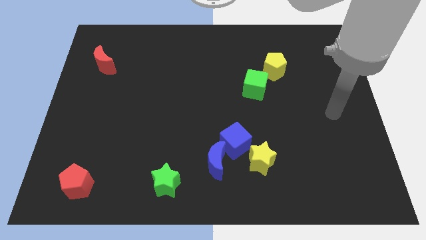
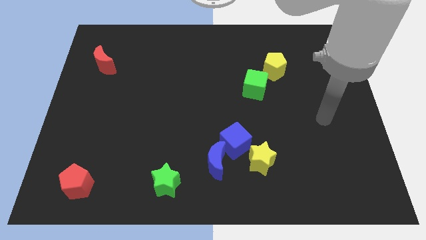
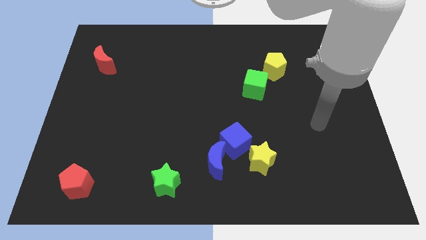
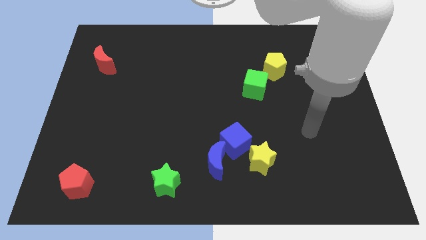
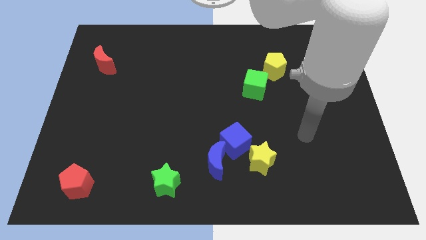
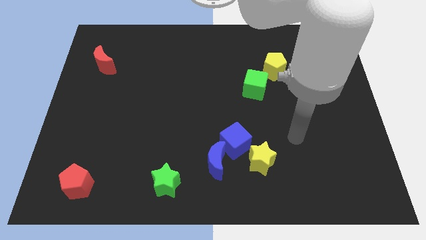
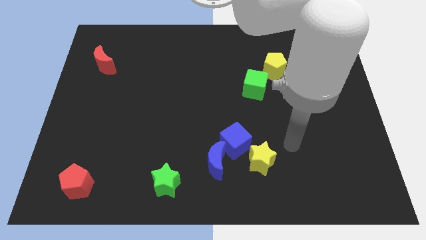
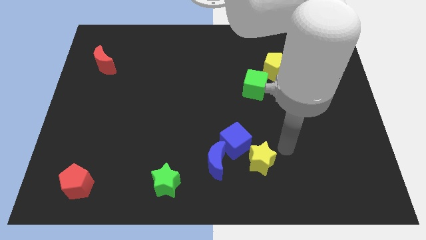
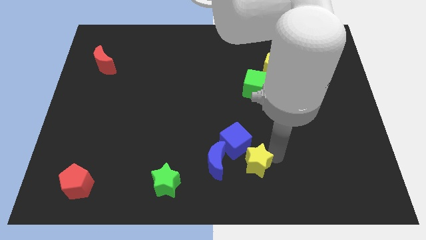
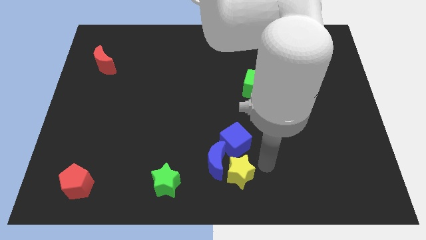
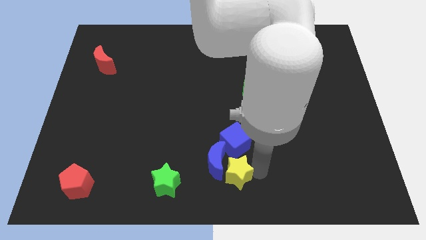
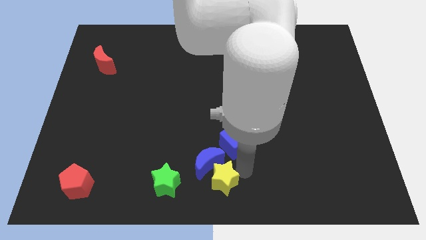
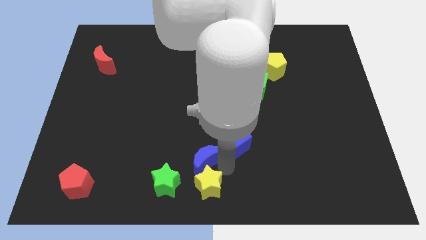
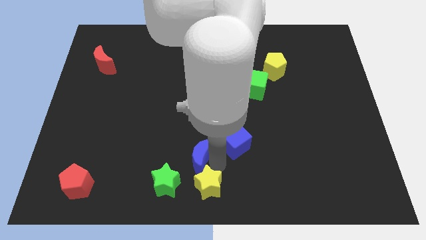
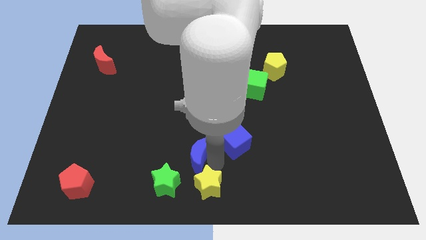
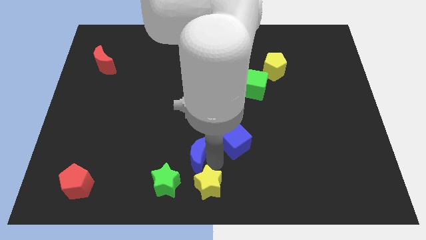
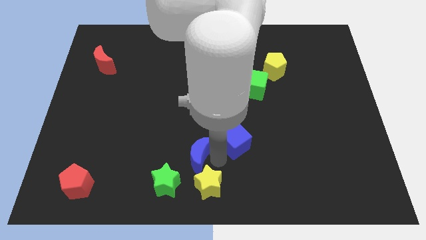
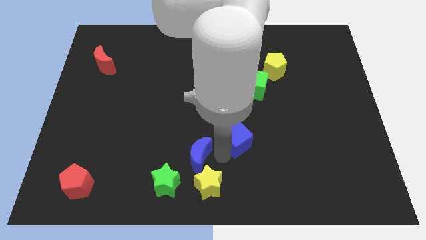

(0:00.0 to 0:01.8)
separate the blue cube from the blue moon and yellow star

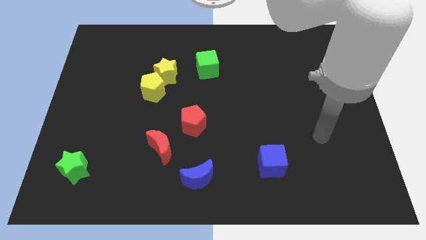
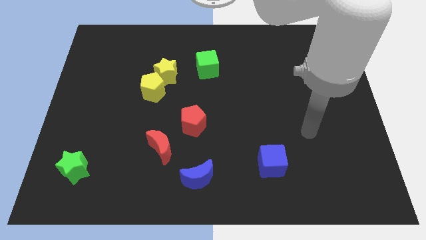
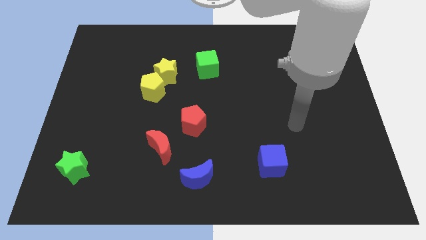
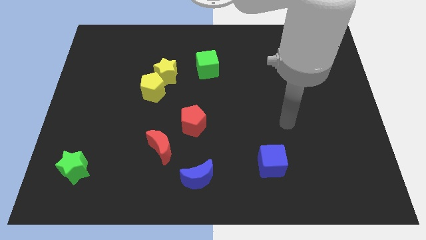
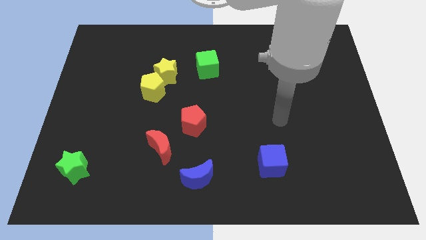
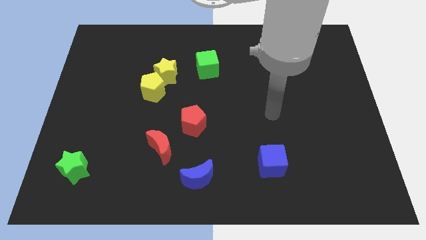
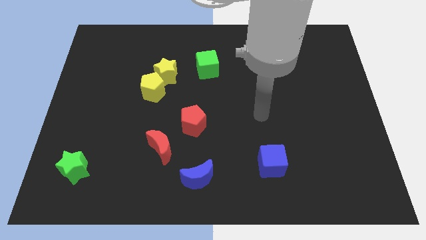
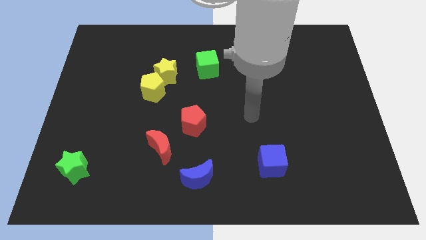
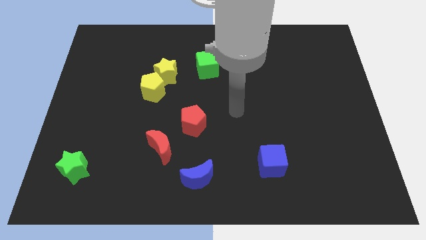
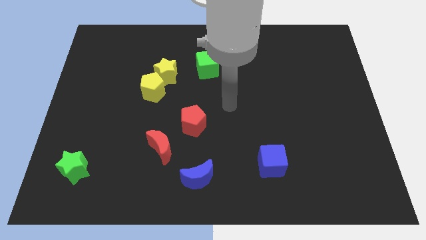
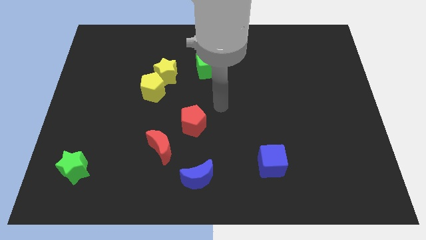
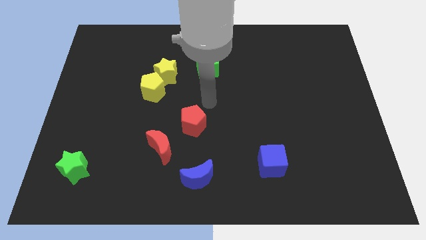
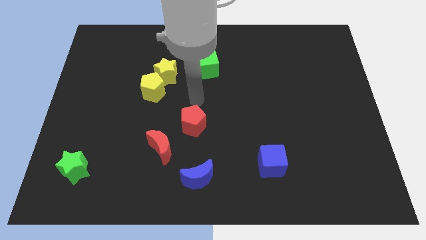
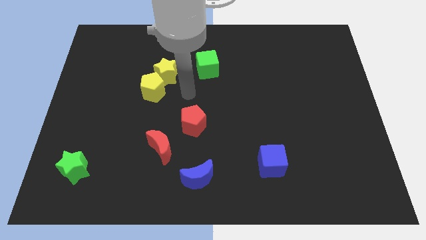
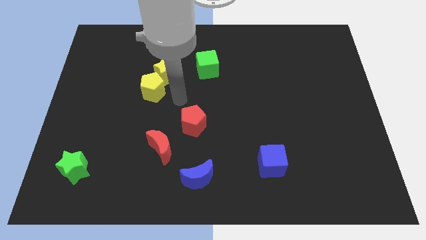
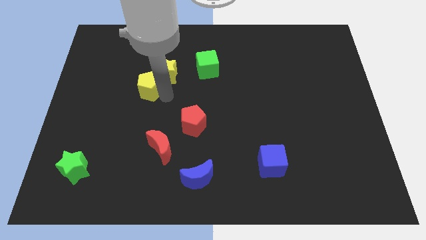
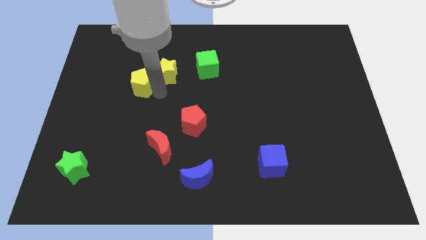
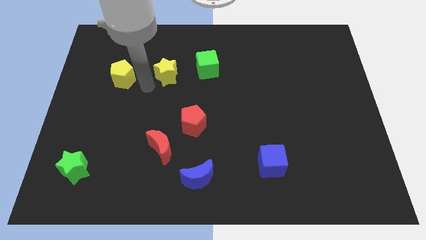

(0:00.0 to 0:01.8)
move the yellow star away from the yellow pentagon

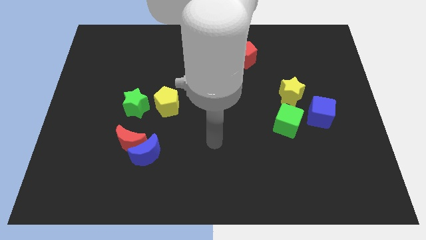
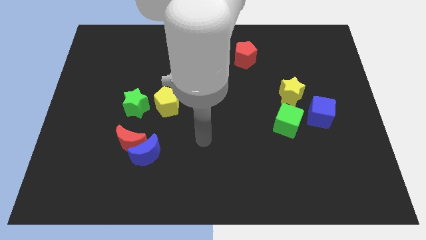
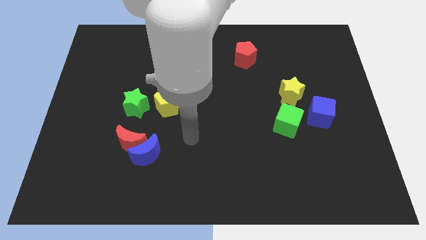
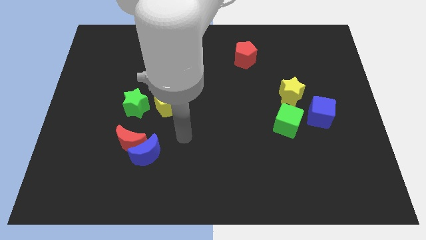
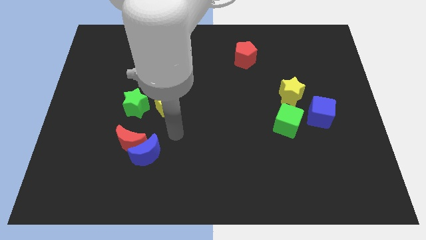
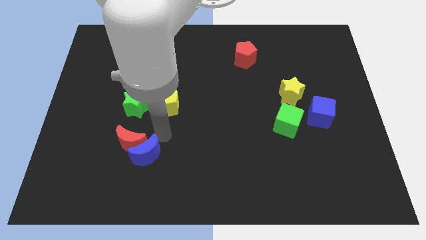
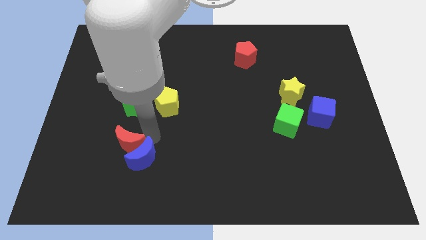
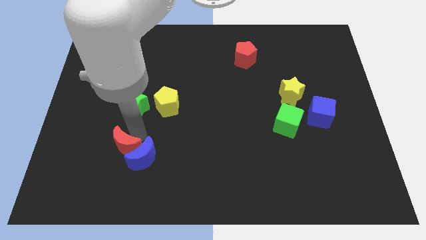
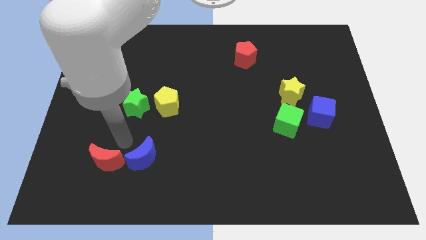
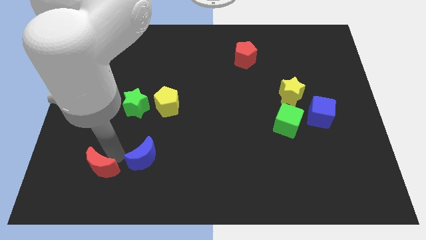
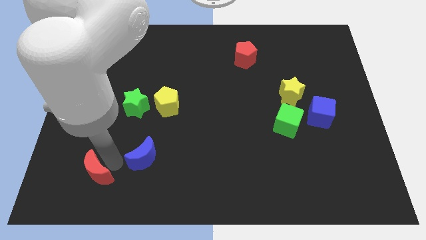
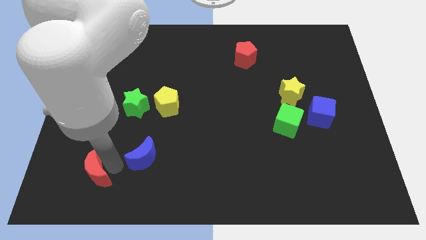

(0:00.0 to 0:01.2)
separate the blue moon from the red moon

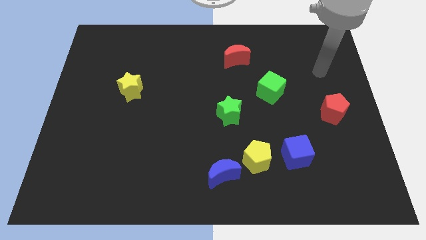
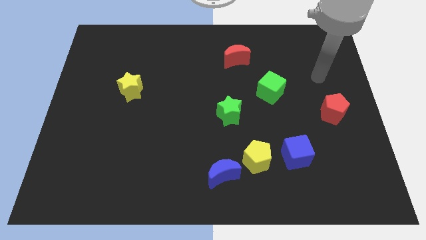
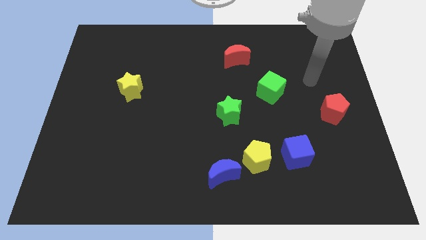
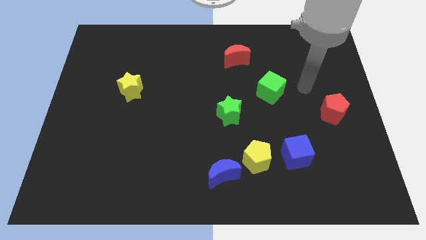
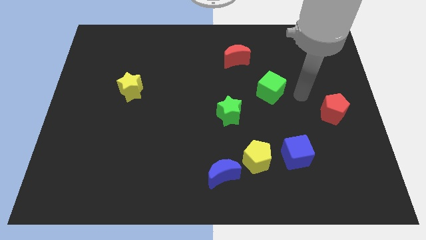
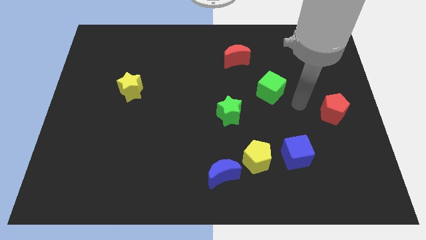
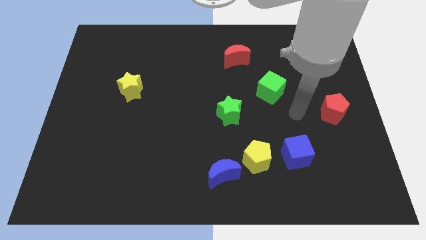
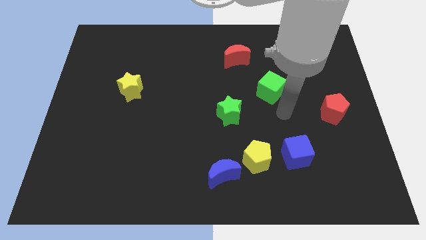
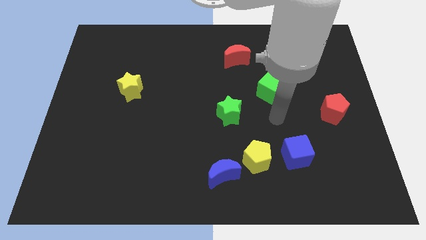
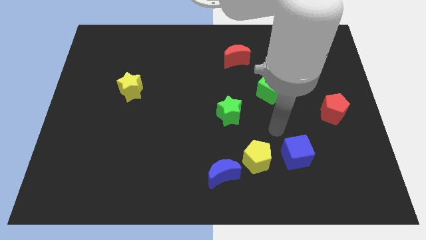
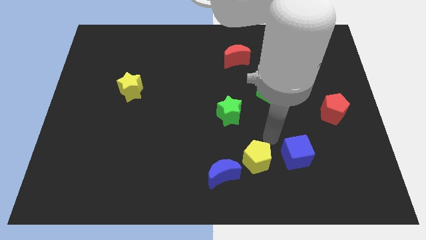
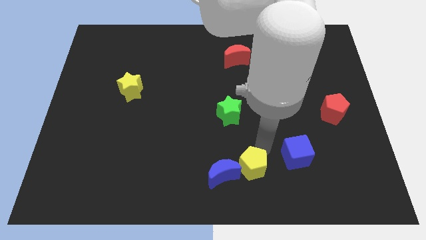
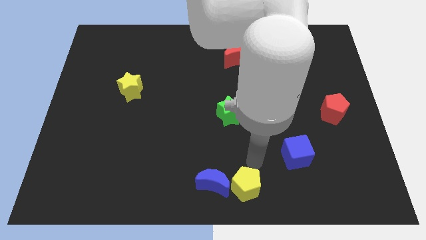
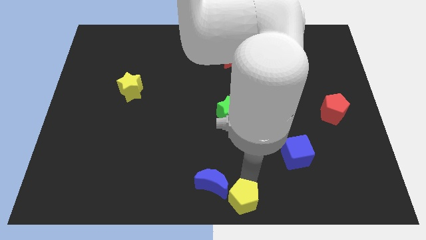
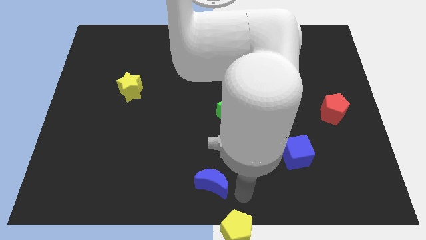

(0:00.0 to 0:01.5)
separate the blue moon from the yellow pentagon

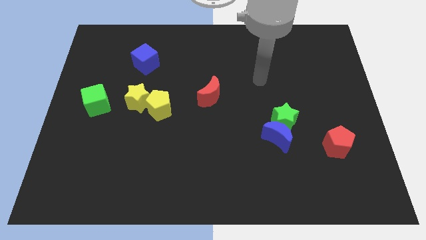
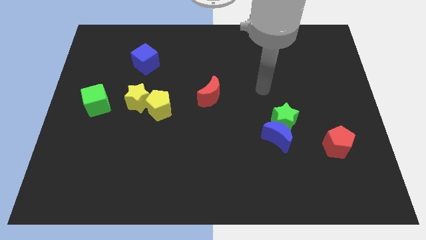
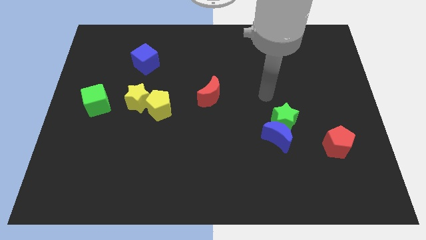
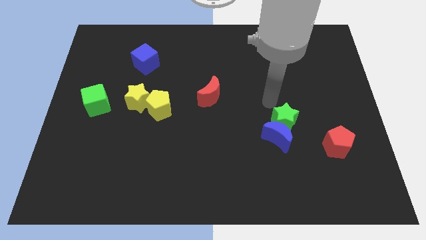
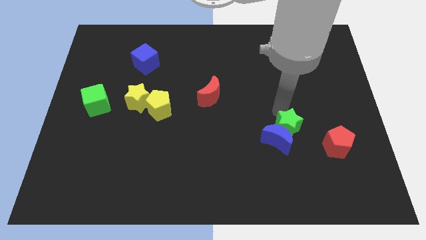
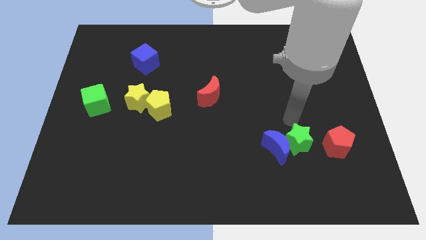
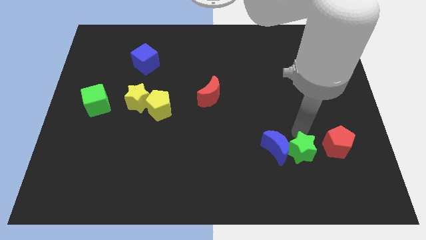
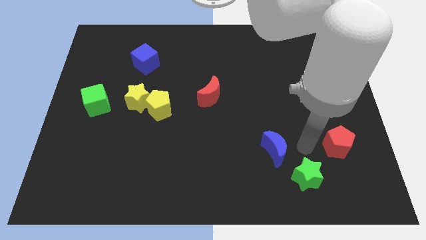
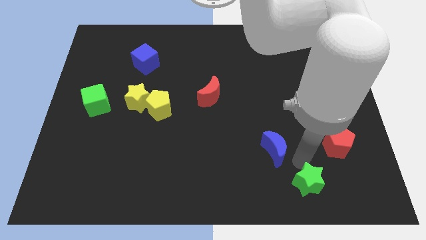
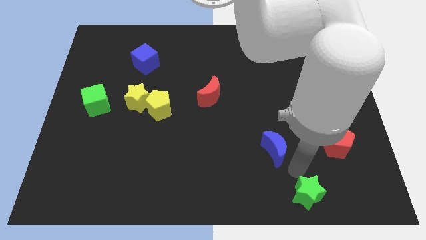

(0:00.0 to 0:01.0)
separate the blue moon from the green star

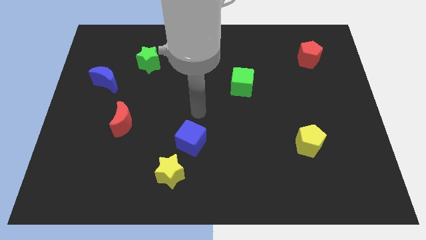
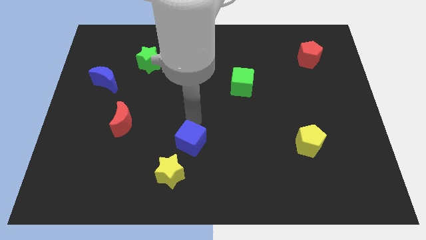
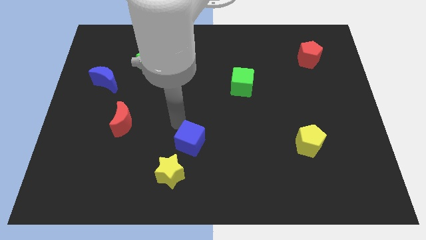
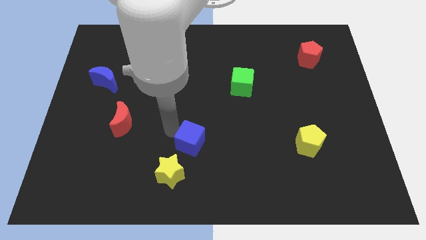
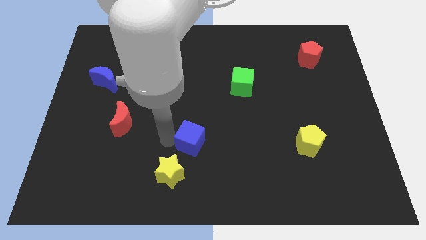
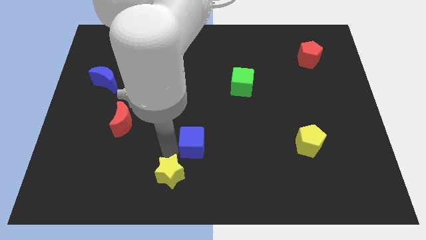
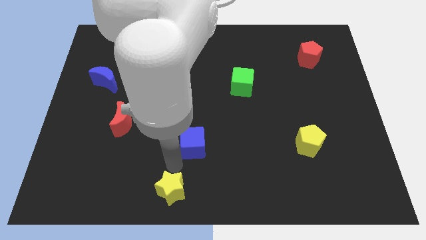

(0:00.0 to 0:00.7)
pull the blue cube apart from the yellow star

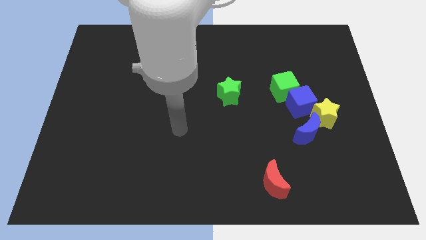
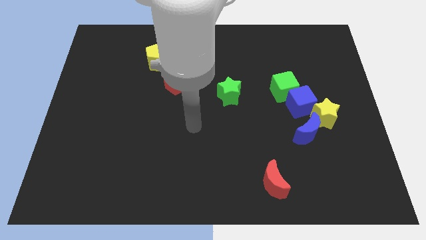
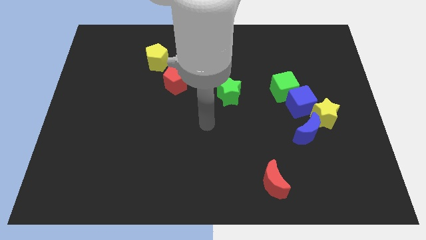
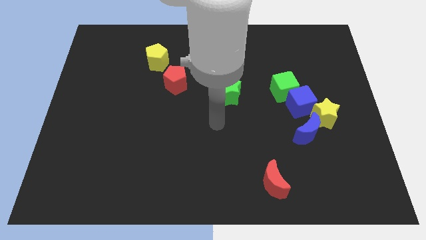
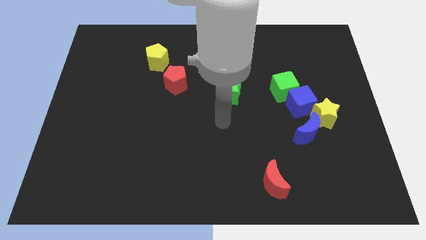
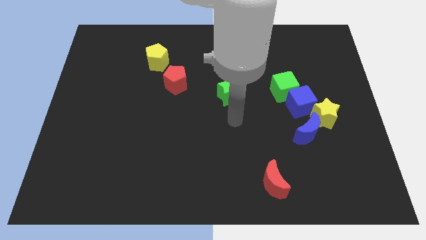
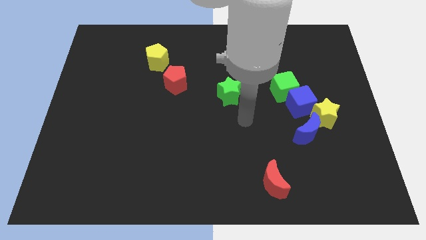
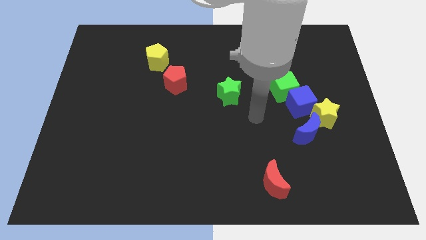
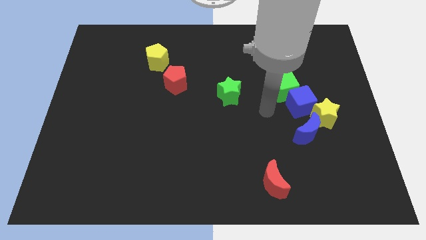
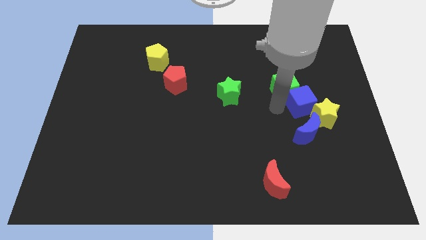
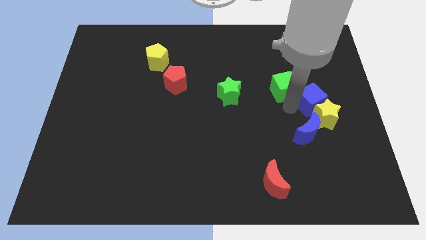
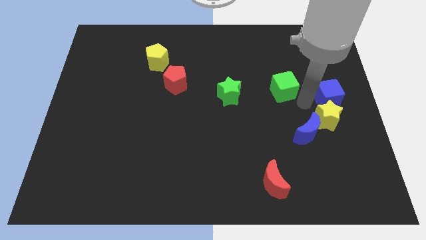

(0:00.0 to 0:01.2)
move the green cube away from the blue cube
